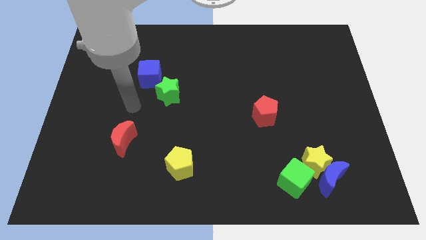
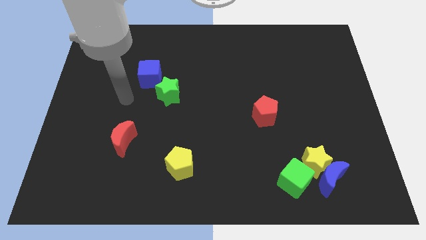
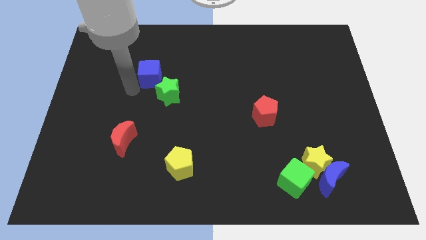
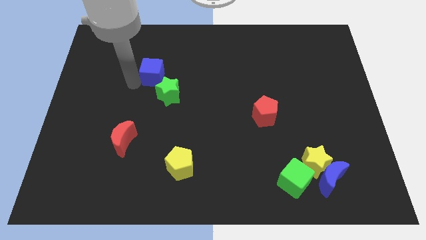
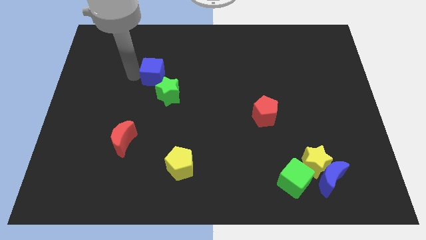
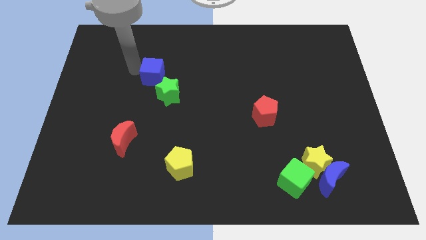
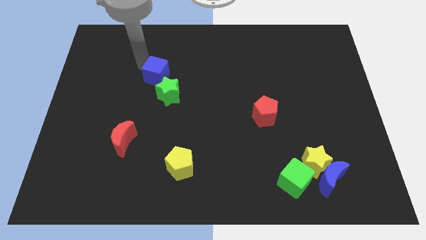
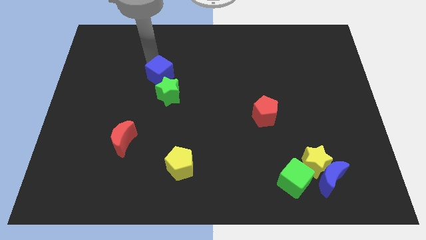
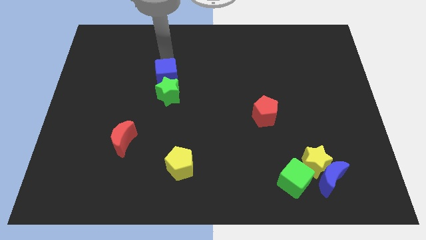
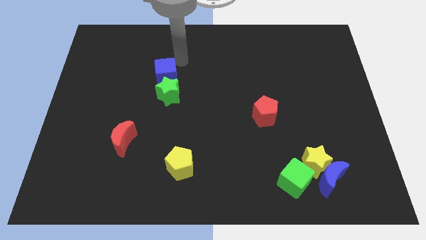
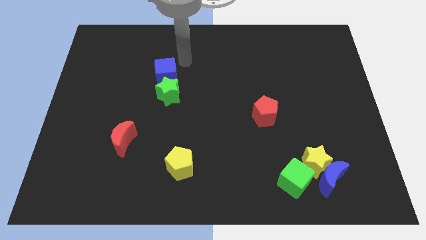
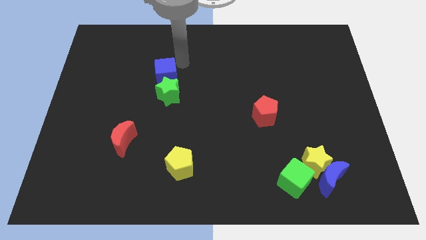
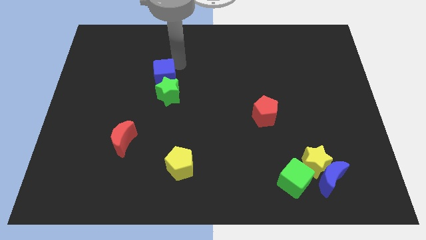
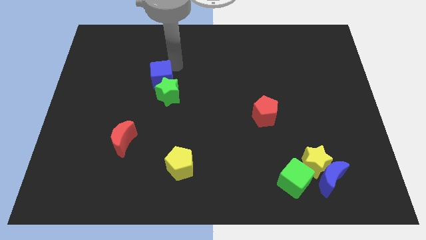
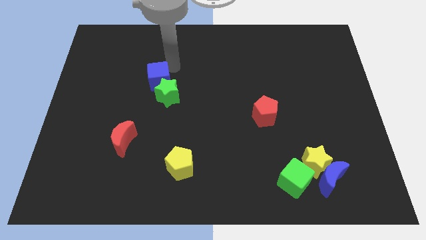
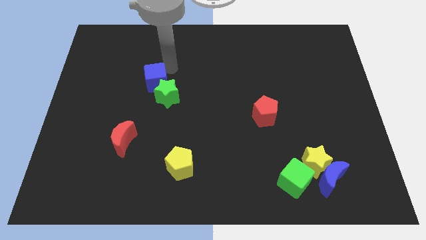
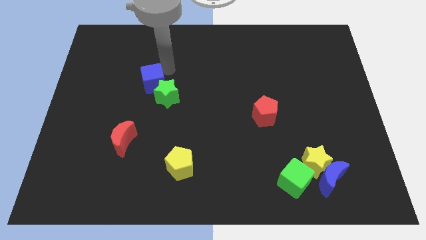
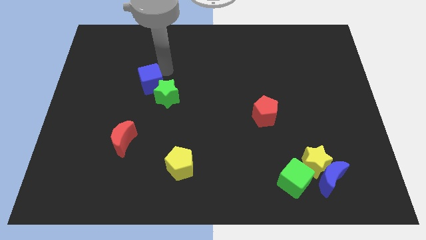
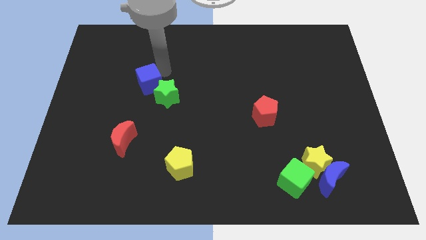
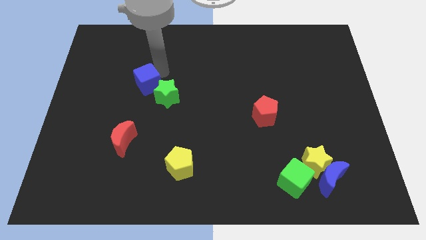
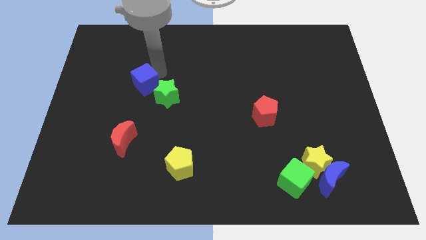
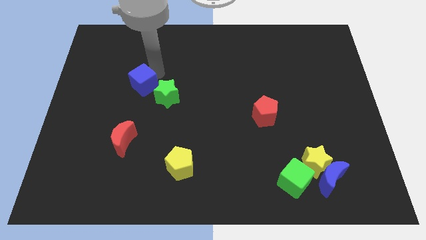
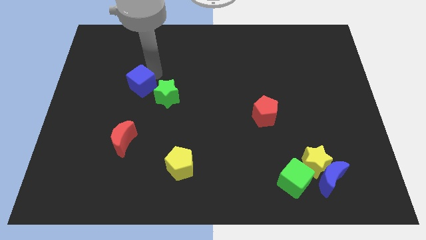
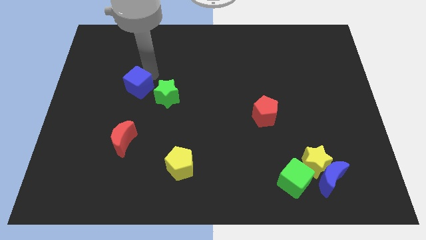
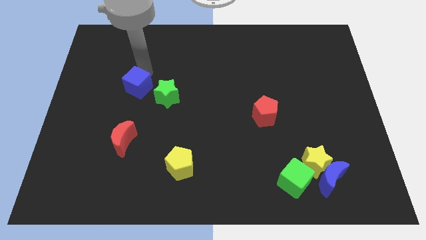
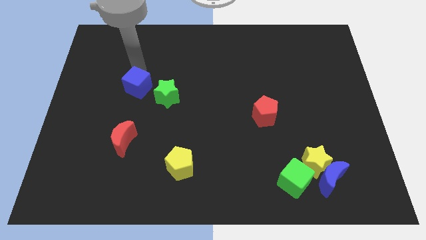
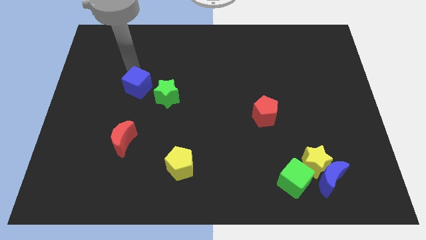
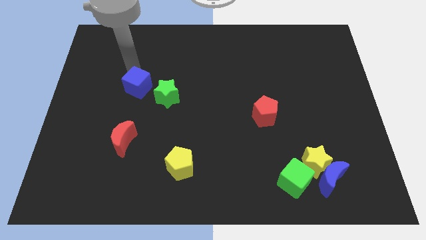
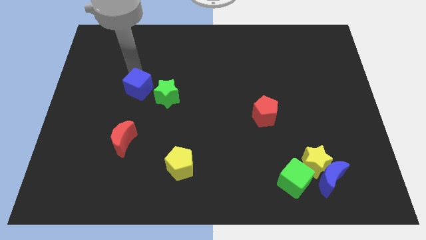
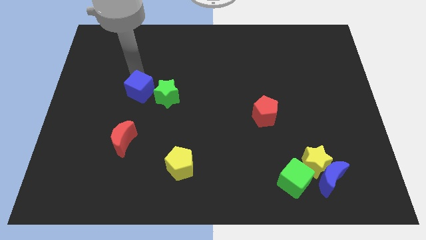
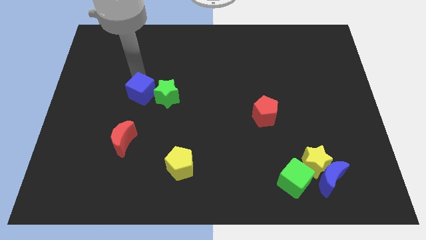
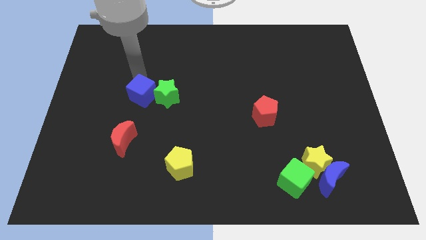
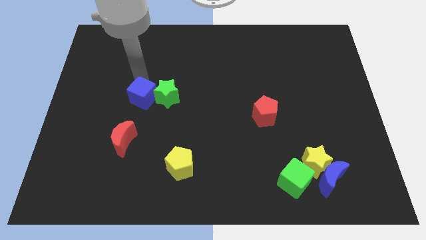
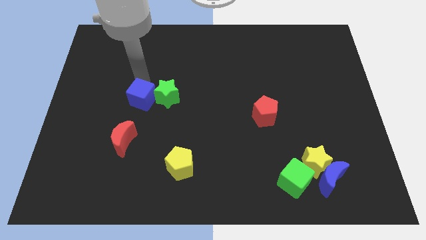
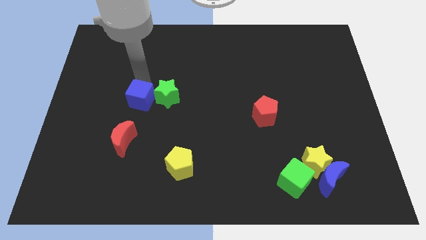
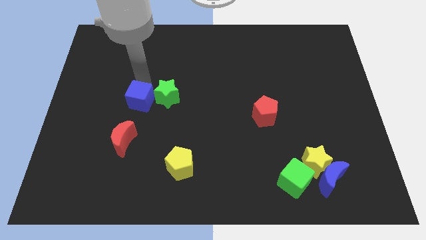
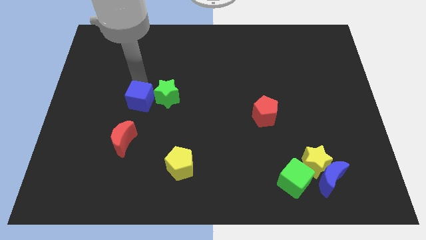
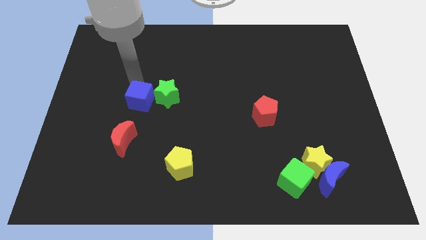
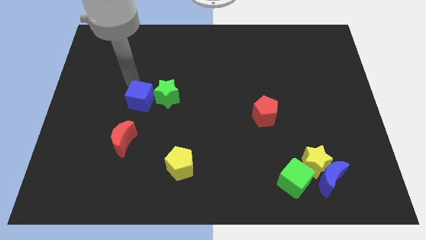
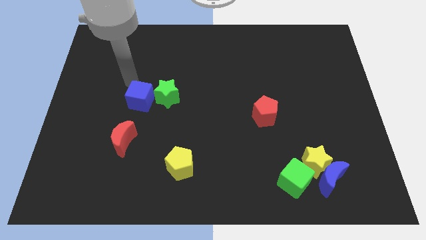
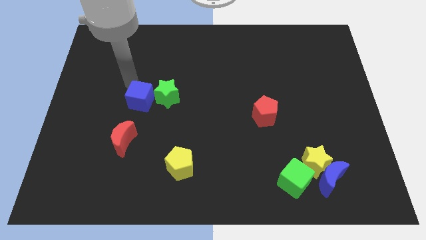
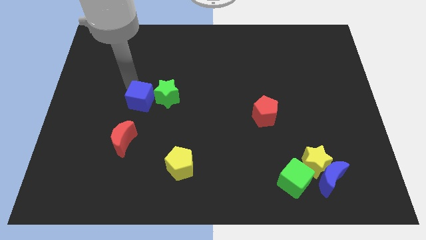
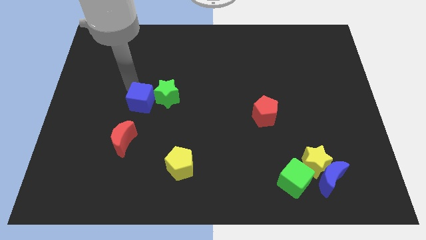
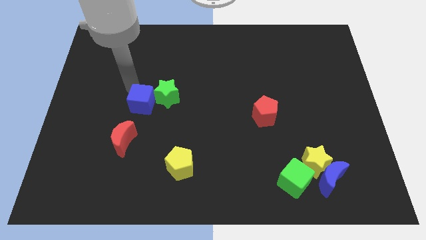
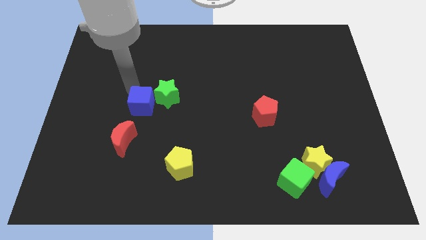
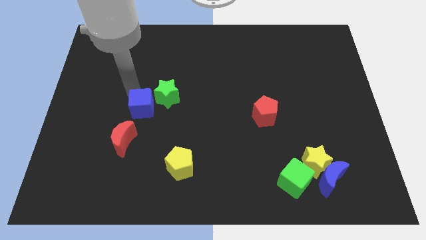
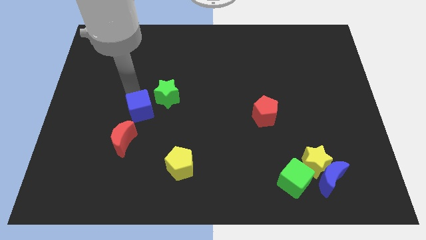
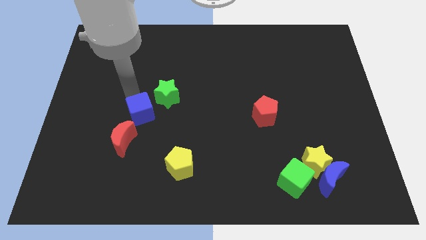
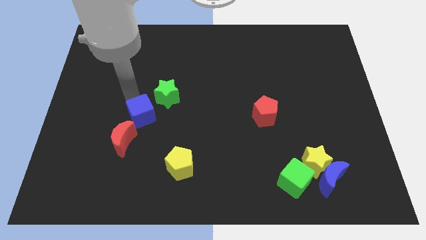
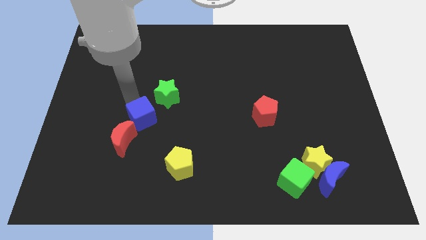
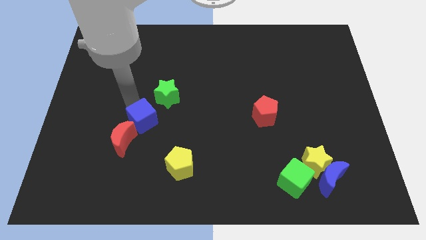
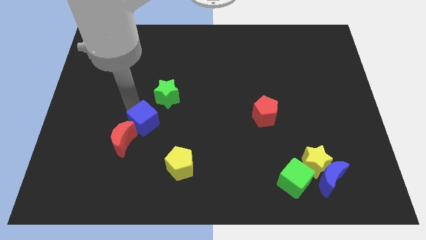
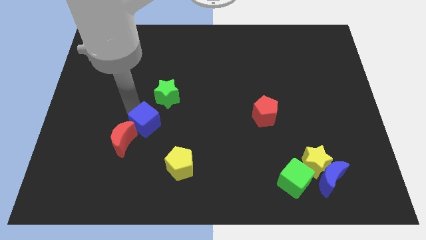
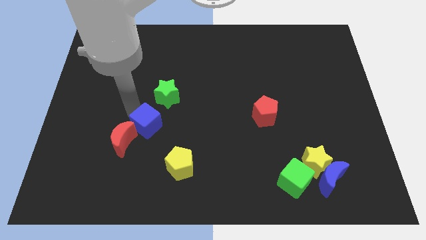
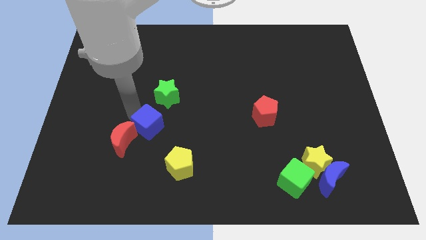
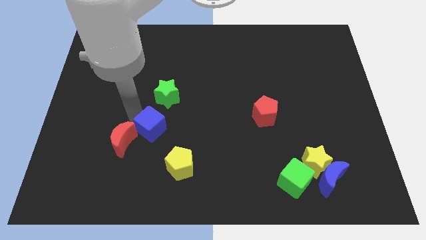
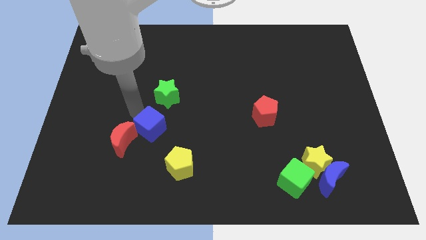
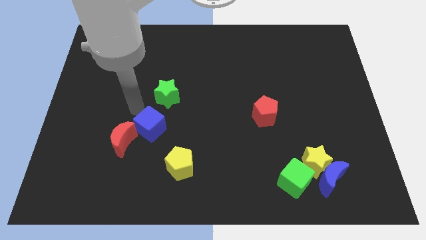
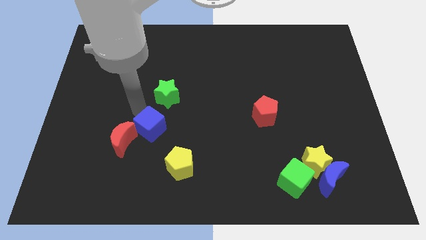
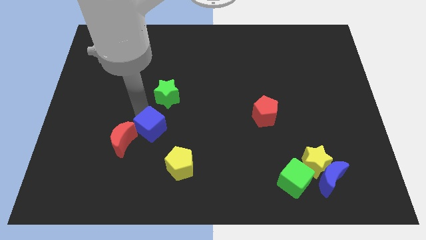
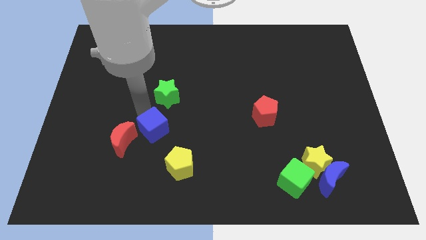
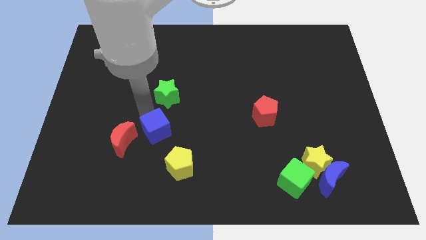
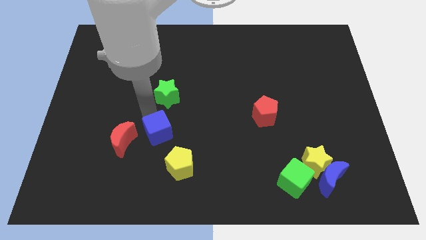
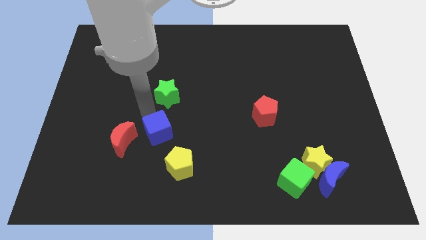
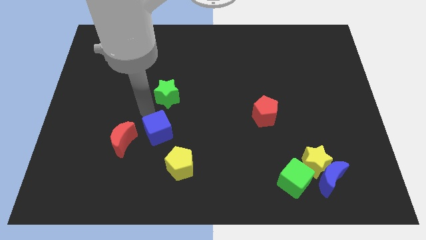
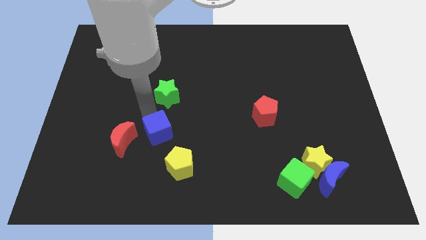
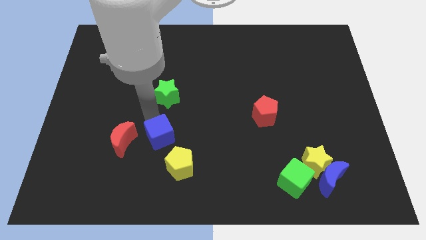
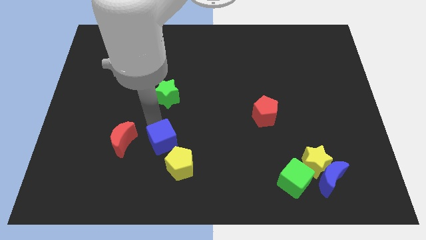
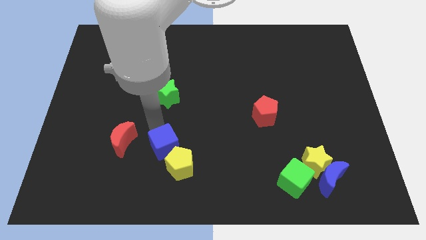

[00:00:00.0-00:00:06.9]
push the blue cube towards the yellow pentagon
